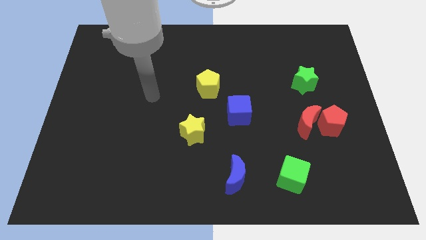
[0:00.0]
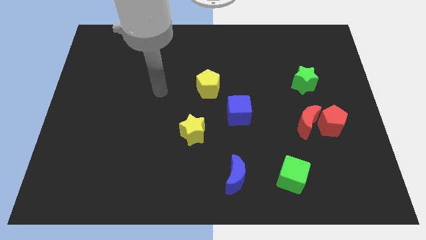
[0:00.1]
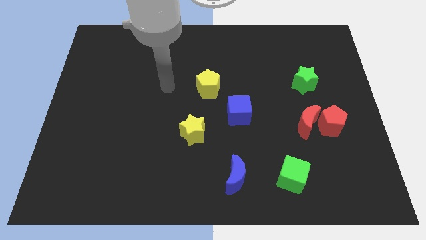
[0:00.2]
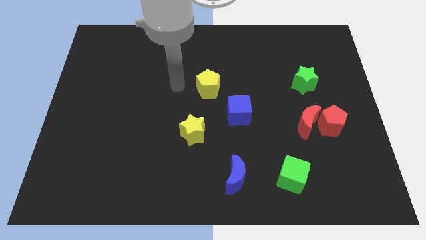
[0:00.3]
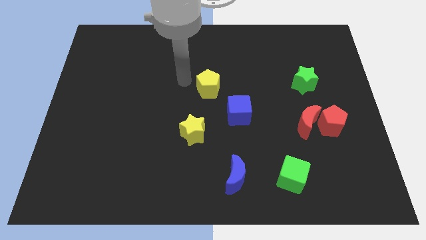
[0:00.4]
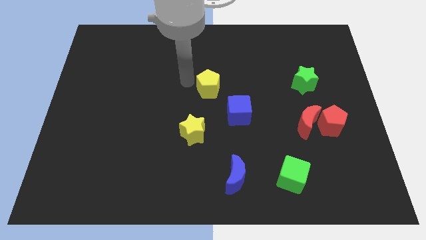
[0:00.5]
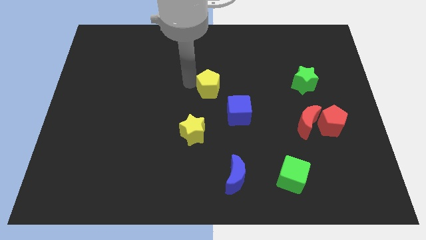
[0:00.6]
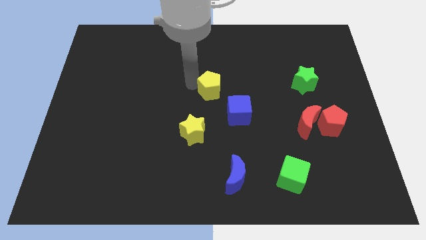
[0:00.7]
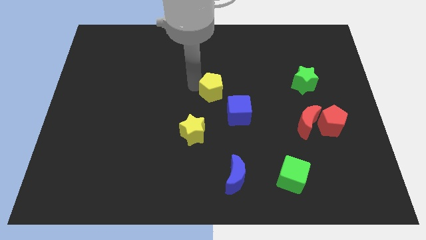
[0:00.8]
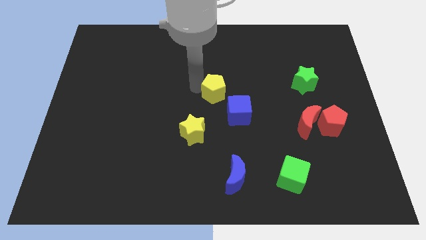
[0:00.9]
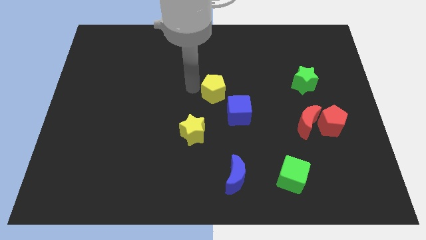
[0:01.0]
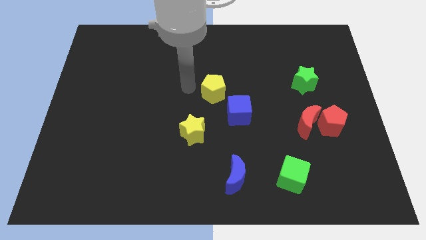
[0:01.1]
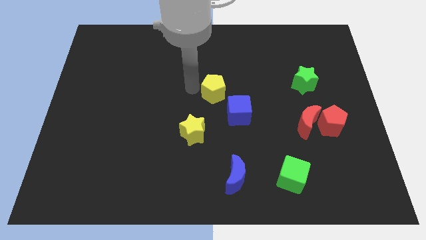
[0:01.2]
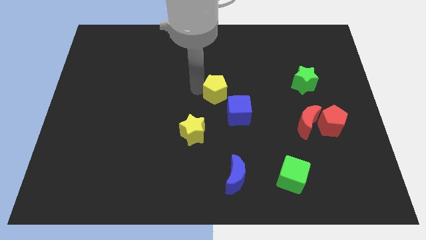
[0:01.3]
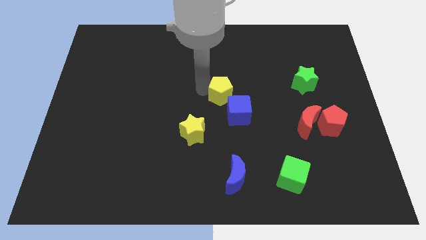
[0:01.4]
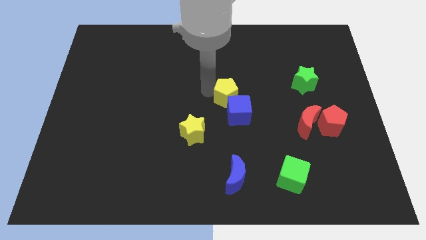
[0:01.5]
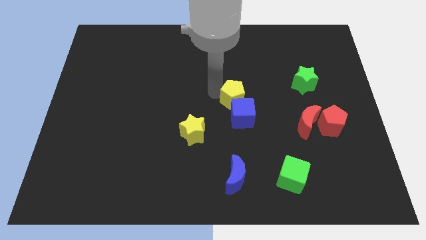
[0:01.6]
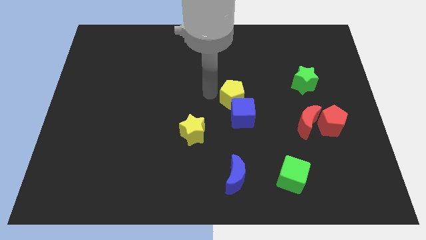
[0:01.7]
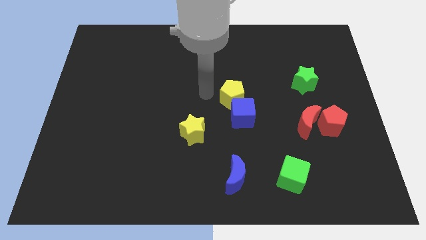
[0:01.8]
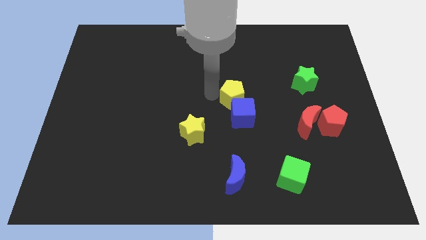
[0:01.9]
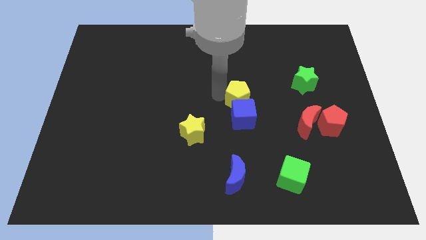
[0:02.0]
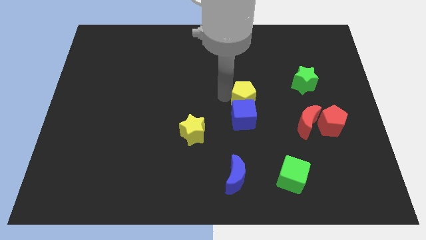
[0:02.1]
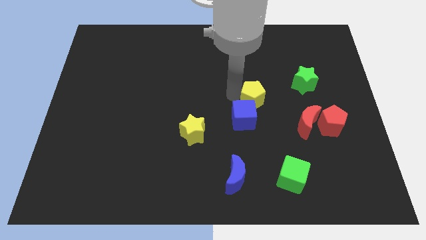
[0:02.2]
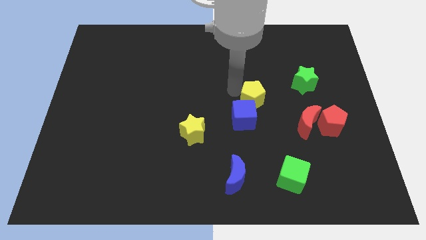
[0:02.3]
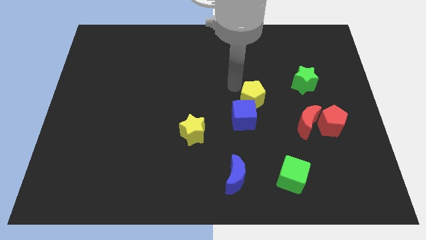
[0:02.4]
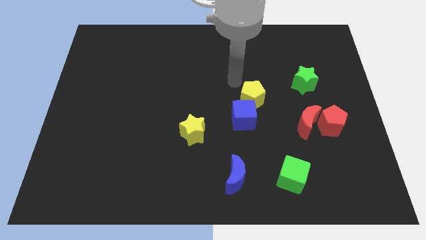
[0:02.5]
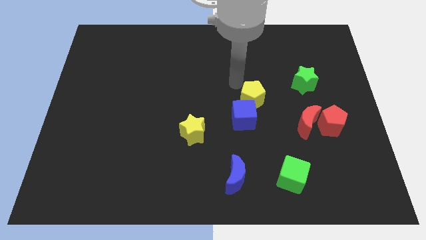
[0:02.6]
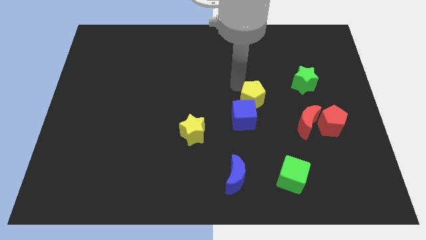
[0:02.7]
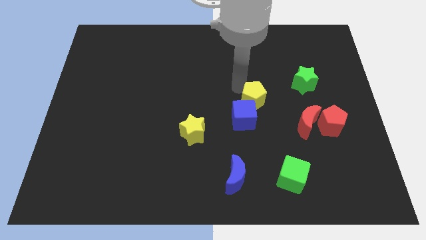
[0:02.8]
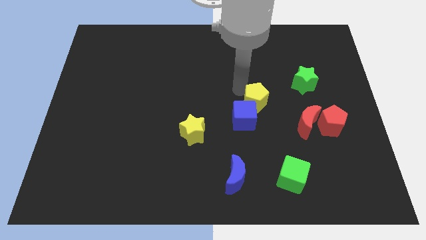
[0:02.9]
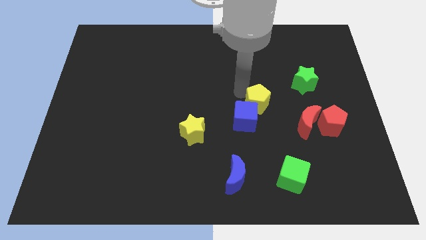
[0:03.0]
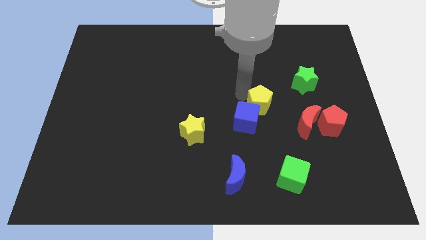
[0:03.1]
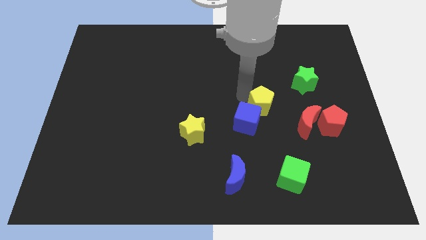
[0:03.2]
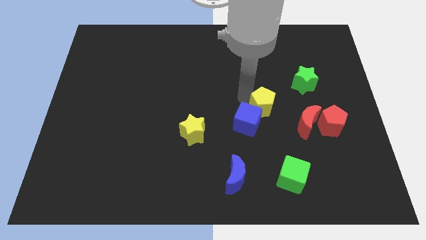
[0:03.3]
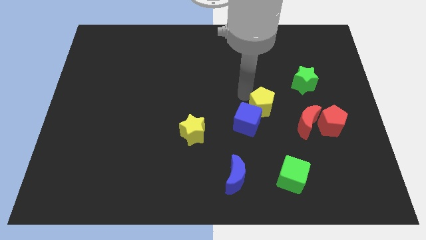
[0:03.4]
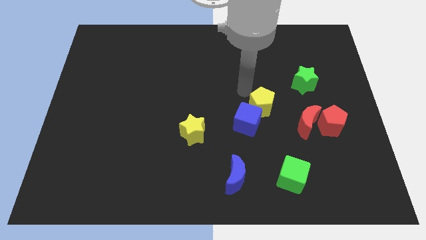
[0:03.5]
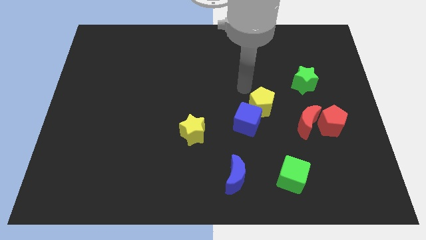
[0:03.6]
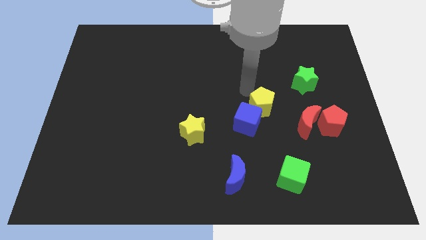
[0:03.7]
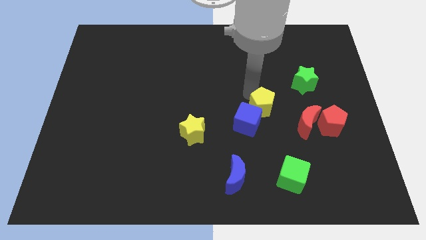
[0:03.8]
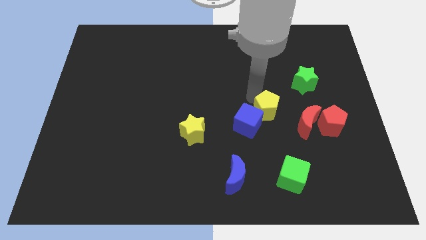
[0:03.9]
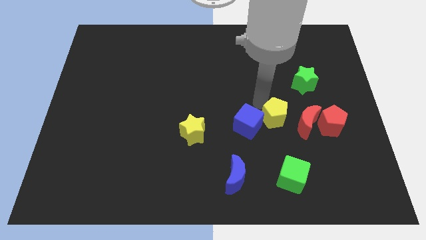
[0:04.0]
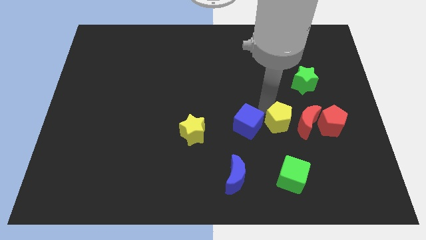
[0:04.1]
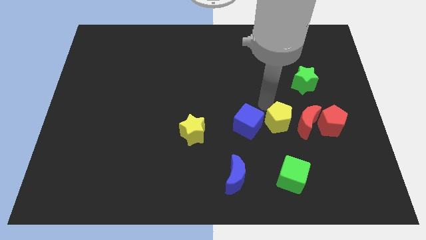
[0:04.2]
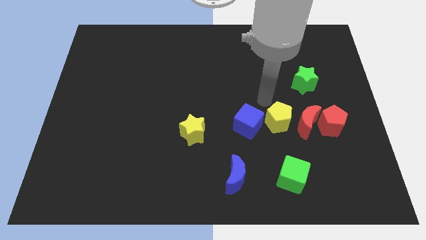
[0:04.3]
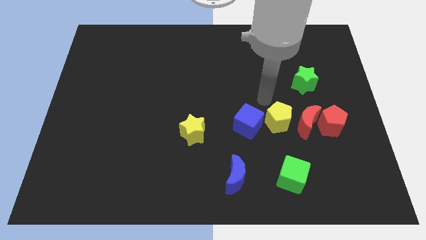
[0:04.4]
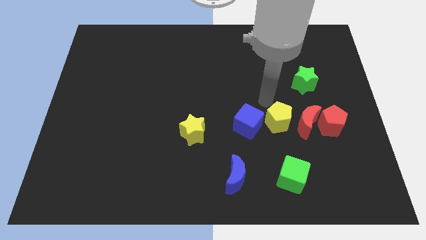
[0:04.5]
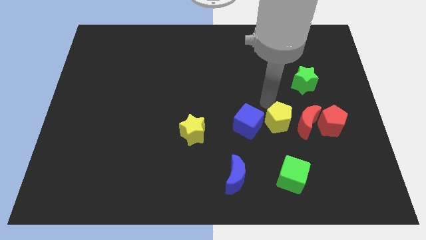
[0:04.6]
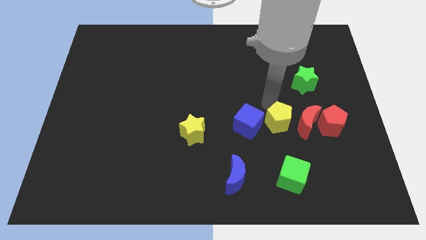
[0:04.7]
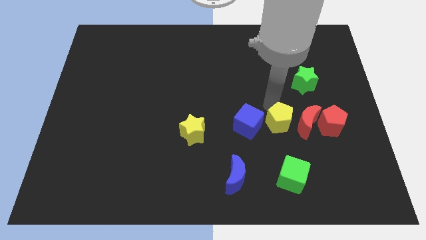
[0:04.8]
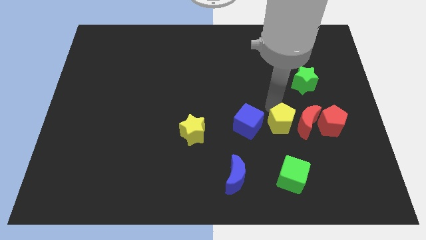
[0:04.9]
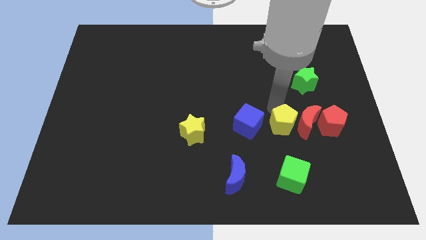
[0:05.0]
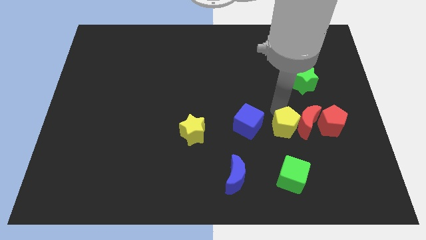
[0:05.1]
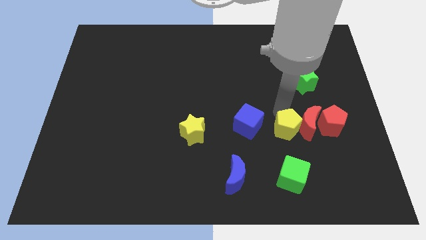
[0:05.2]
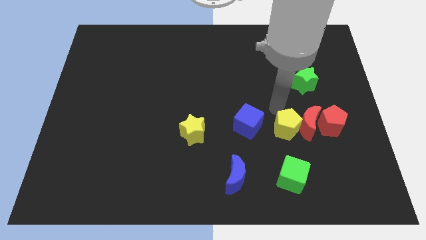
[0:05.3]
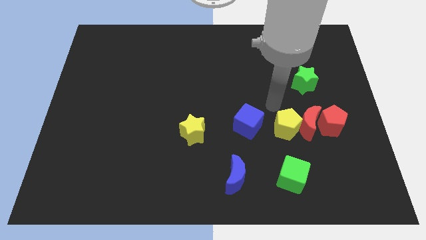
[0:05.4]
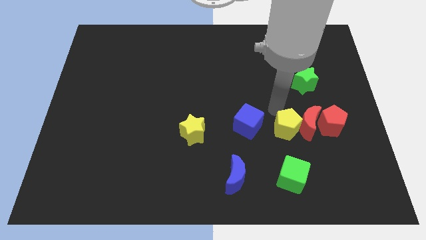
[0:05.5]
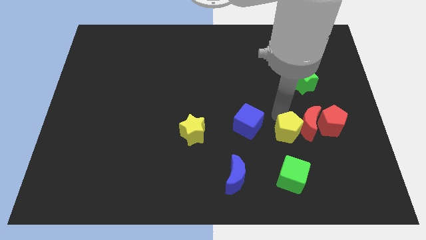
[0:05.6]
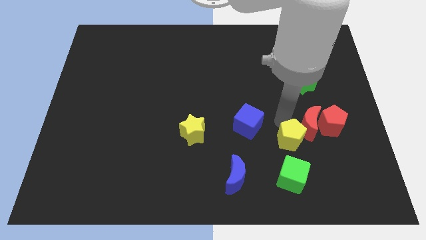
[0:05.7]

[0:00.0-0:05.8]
move the yellow pentagon below the red moon
